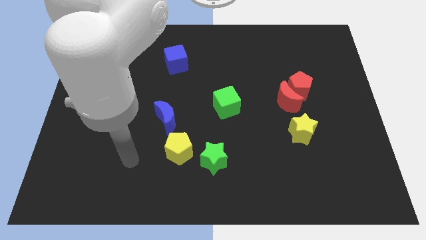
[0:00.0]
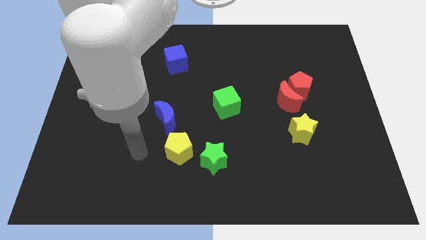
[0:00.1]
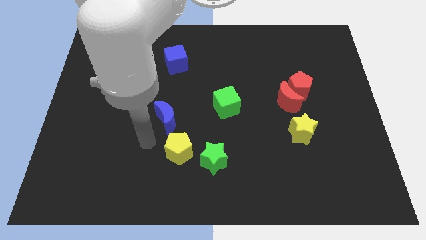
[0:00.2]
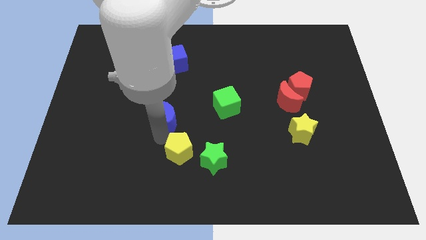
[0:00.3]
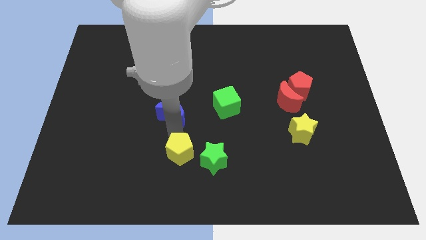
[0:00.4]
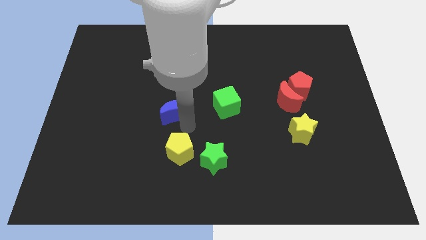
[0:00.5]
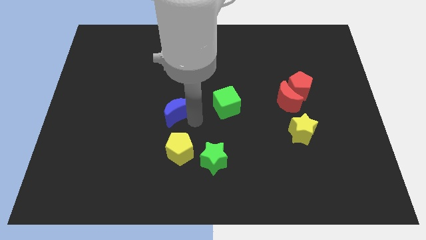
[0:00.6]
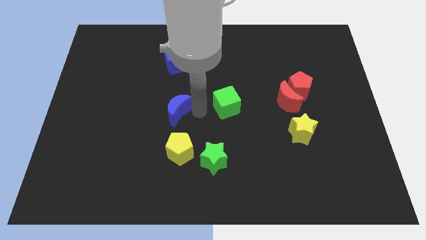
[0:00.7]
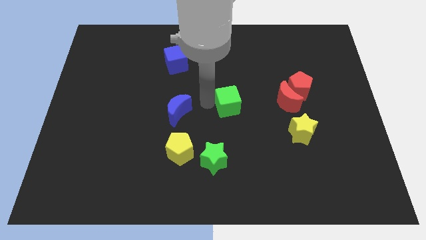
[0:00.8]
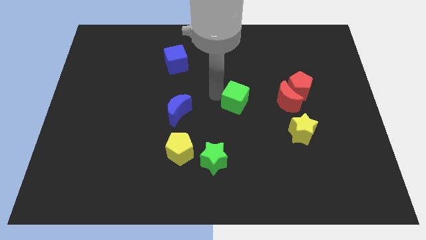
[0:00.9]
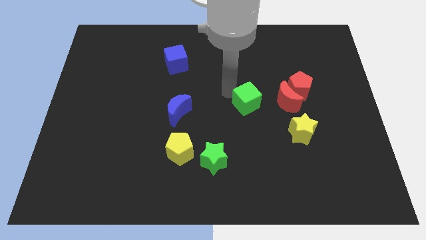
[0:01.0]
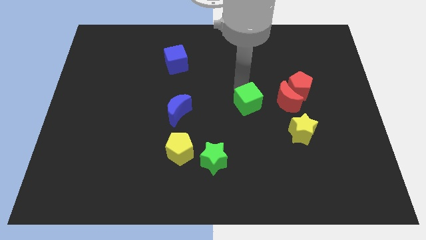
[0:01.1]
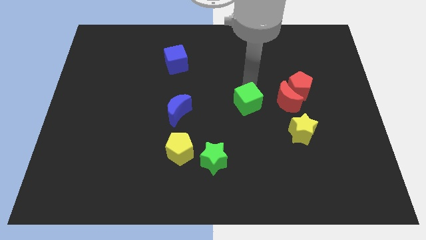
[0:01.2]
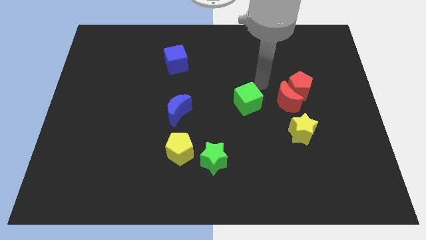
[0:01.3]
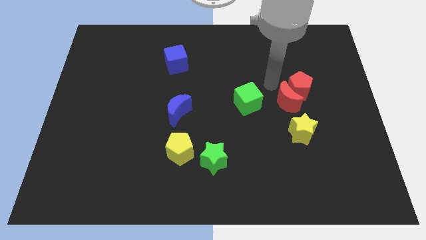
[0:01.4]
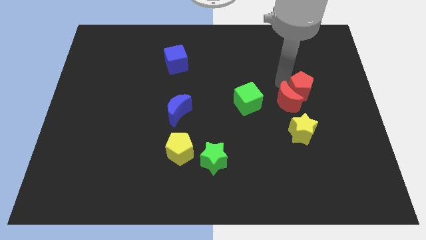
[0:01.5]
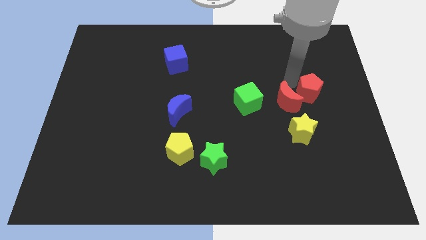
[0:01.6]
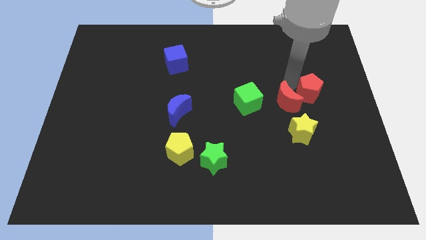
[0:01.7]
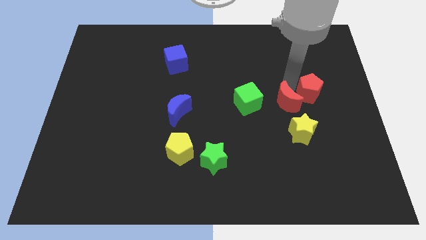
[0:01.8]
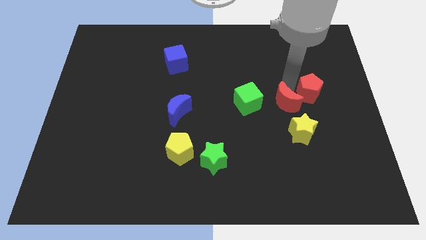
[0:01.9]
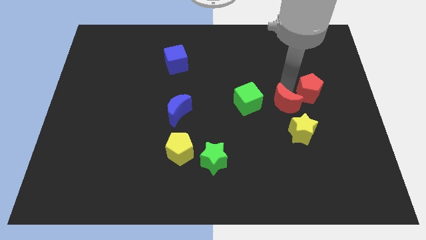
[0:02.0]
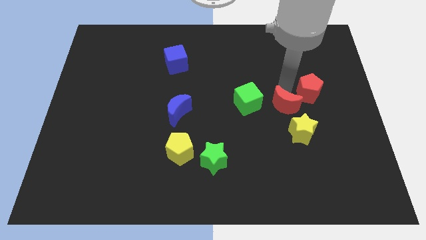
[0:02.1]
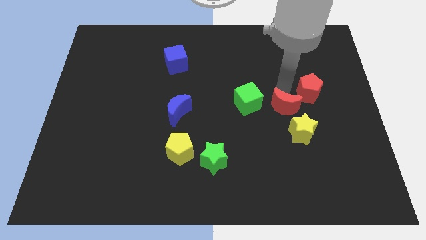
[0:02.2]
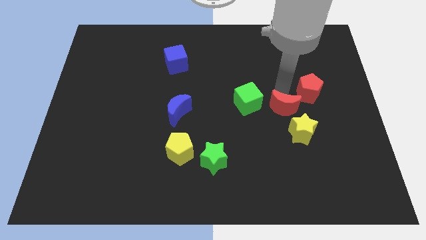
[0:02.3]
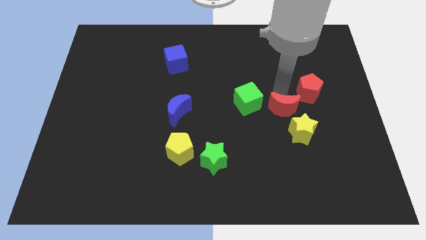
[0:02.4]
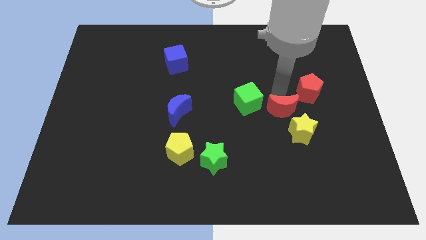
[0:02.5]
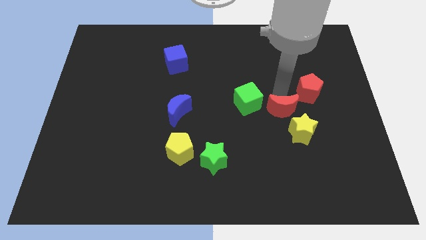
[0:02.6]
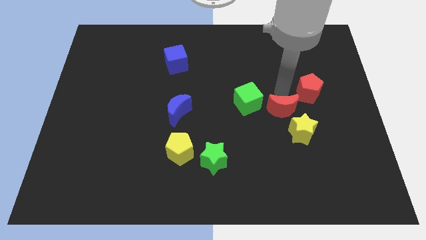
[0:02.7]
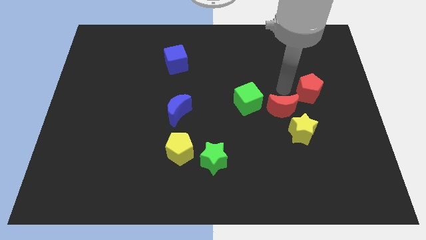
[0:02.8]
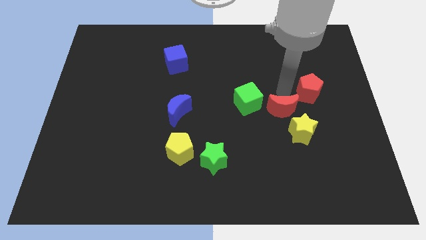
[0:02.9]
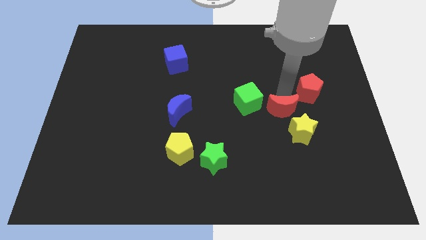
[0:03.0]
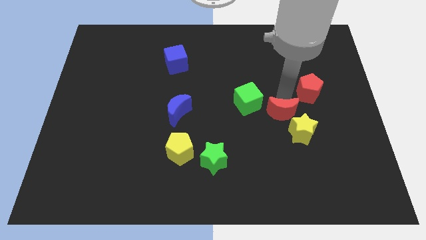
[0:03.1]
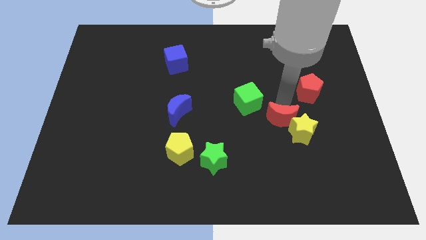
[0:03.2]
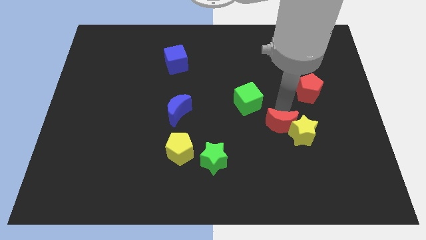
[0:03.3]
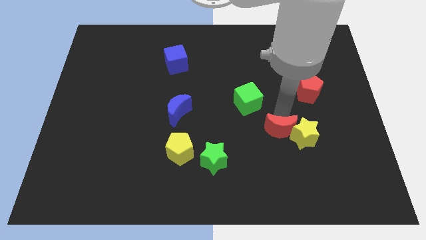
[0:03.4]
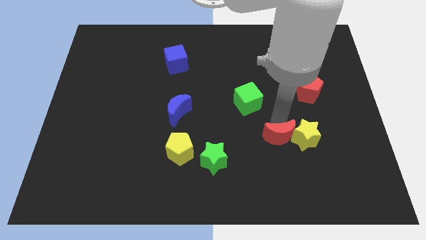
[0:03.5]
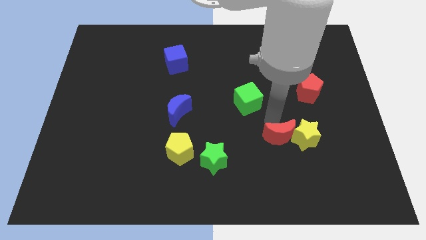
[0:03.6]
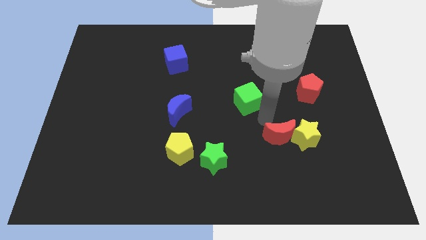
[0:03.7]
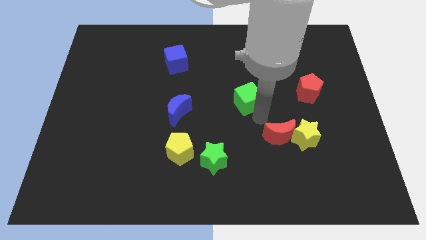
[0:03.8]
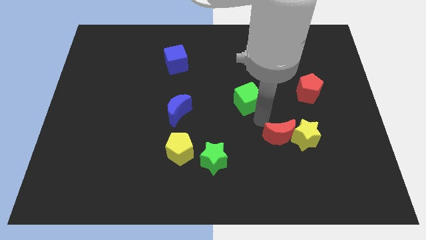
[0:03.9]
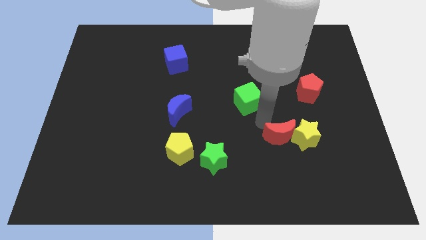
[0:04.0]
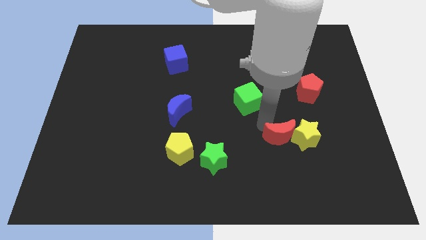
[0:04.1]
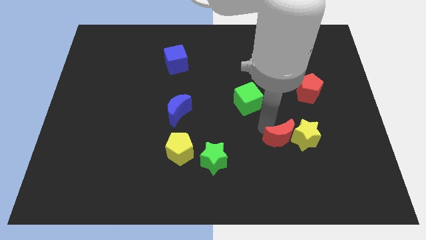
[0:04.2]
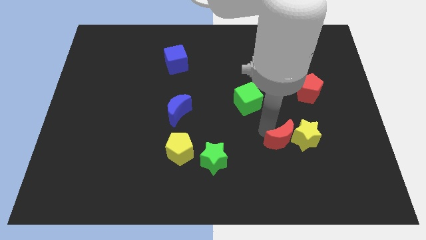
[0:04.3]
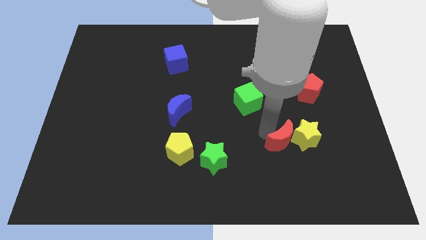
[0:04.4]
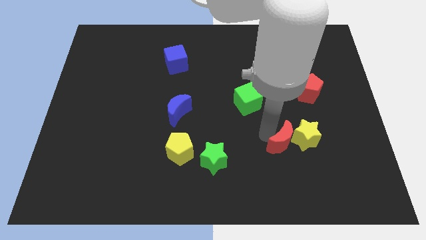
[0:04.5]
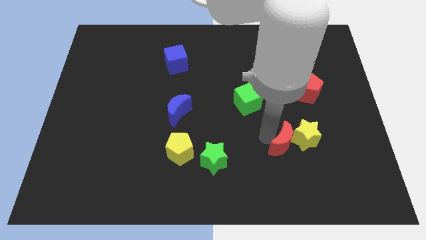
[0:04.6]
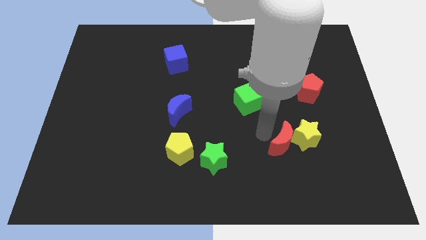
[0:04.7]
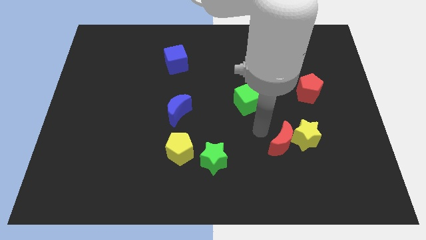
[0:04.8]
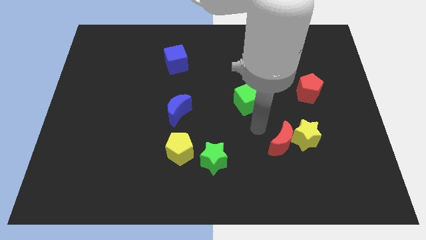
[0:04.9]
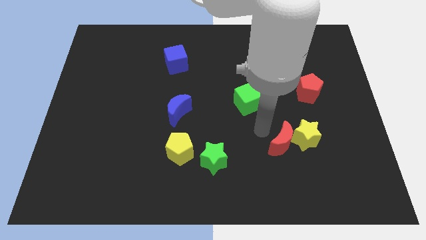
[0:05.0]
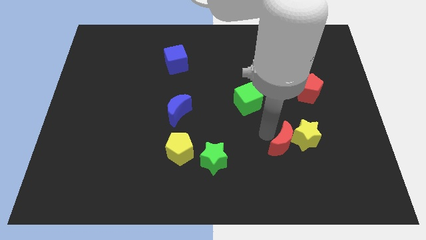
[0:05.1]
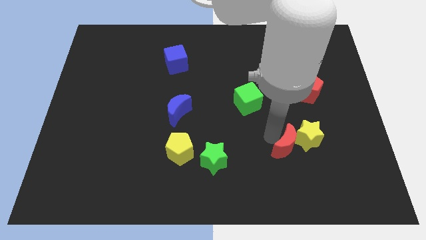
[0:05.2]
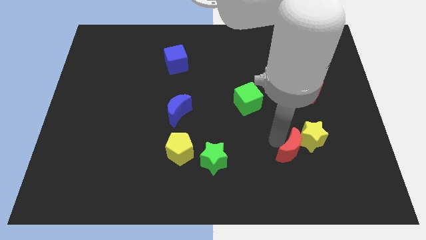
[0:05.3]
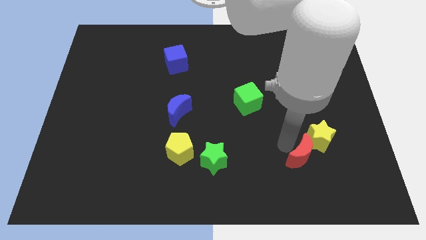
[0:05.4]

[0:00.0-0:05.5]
put the red moon below the yellow star

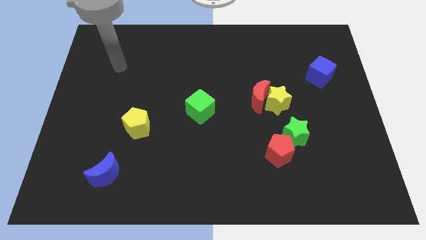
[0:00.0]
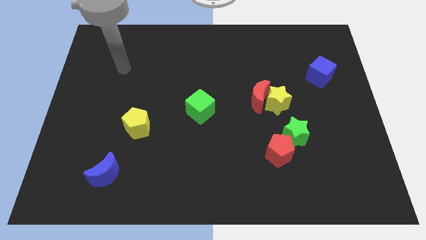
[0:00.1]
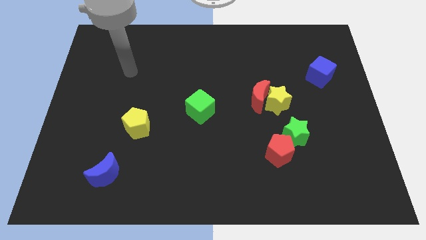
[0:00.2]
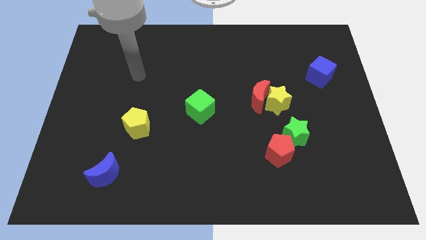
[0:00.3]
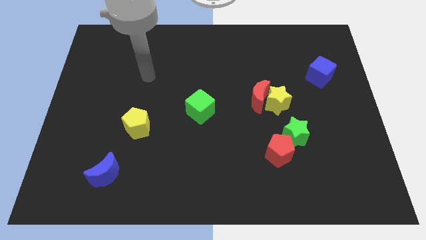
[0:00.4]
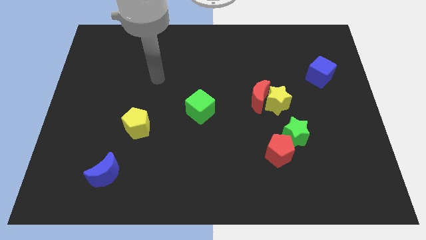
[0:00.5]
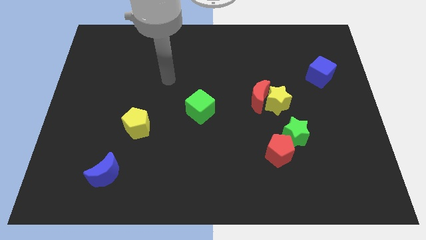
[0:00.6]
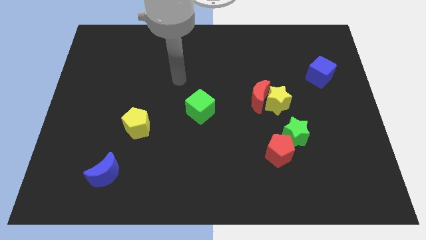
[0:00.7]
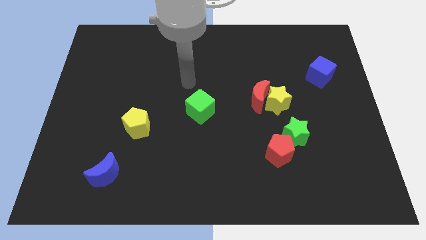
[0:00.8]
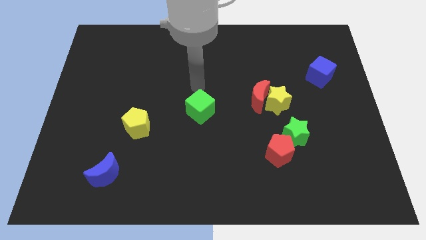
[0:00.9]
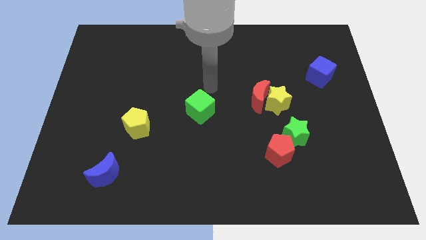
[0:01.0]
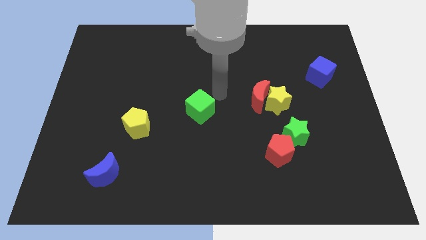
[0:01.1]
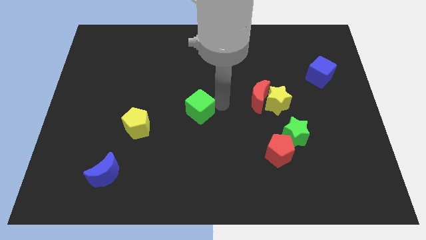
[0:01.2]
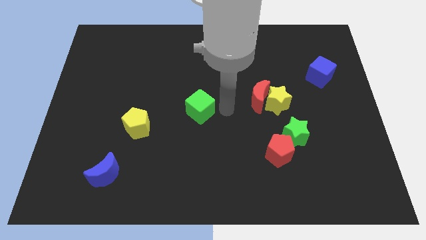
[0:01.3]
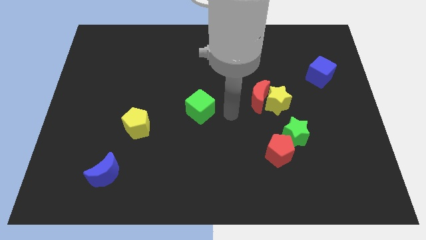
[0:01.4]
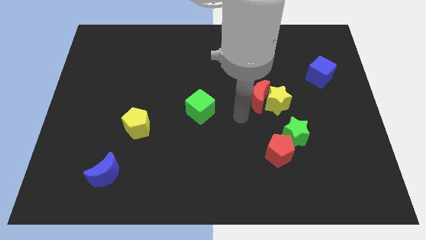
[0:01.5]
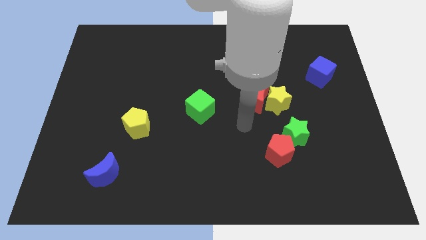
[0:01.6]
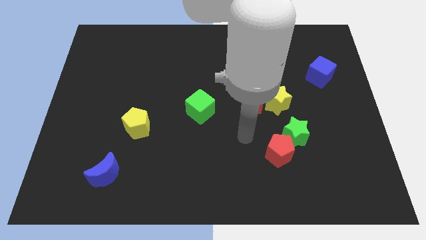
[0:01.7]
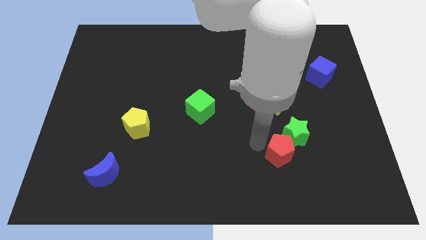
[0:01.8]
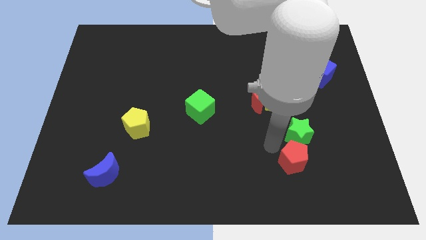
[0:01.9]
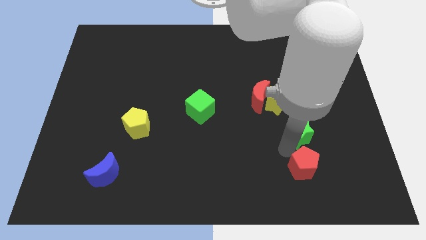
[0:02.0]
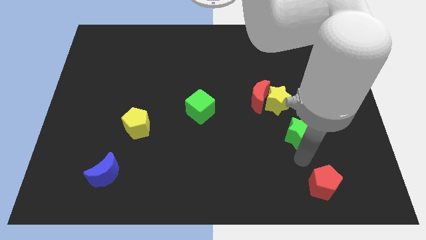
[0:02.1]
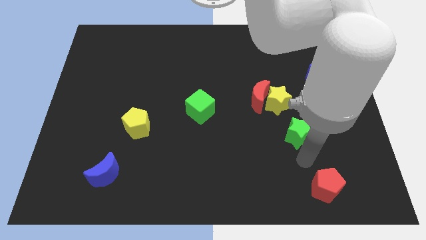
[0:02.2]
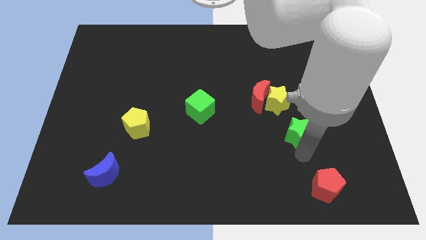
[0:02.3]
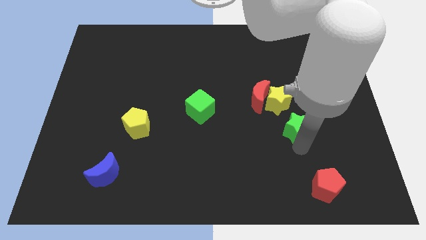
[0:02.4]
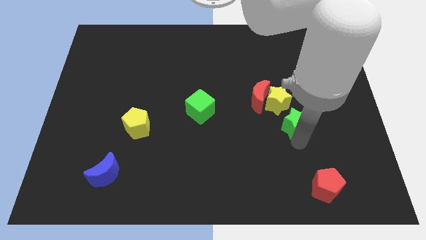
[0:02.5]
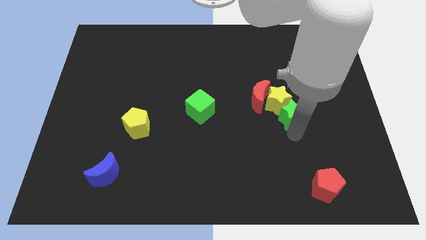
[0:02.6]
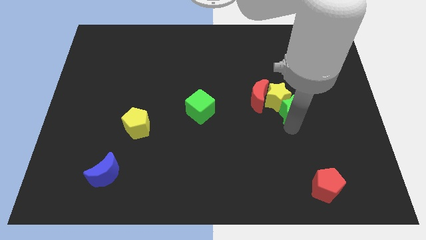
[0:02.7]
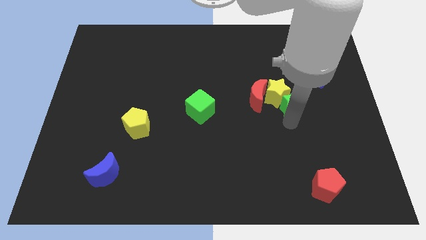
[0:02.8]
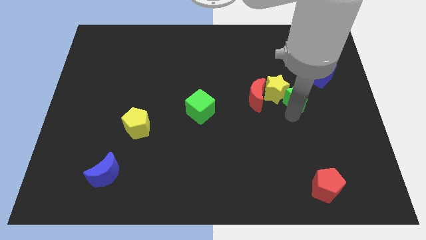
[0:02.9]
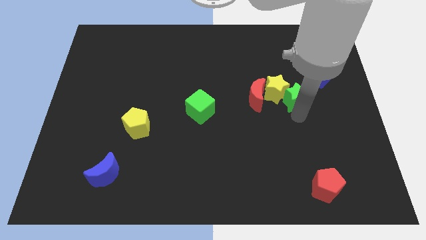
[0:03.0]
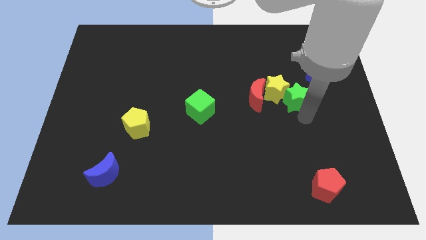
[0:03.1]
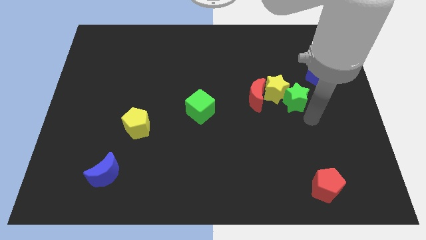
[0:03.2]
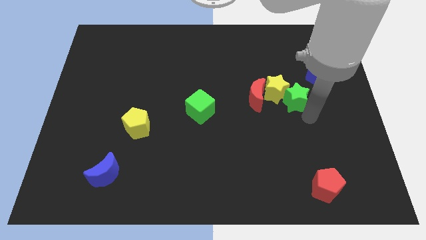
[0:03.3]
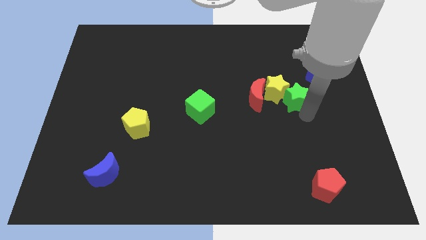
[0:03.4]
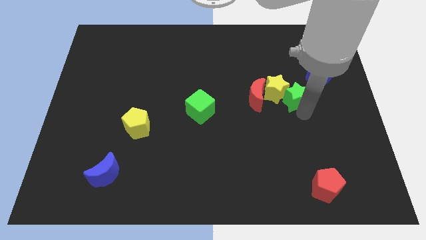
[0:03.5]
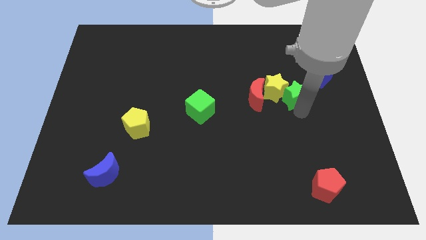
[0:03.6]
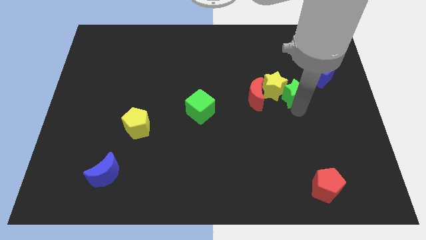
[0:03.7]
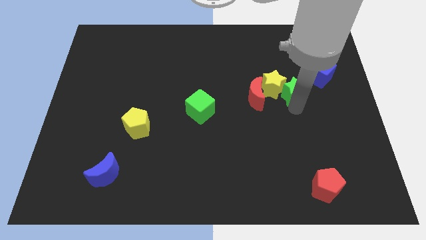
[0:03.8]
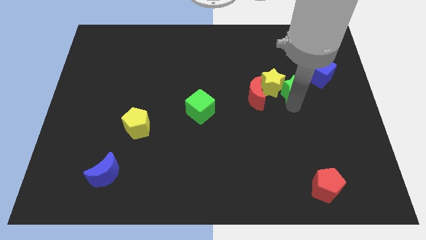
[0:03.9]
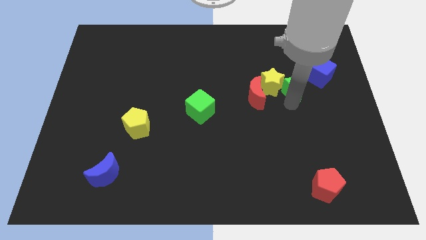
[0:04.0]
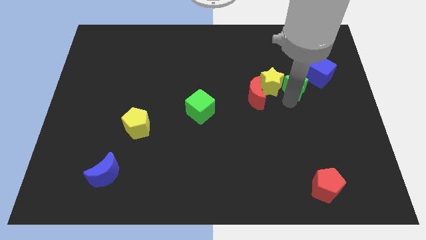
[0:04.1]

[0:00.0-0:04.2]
slide the green star diagonally up and to the right of the red moon
